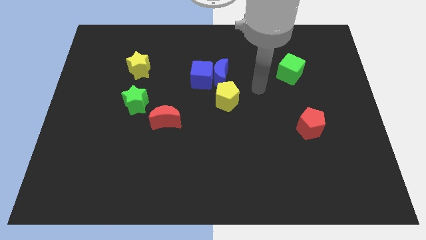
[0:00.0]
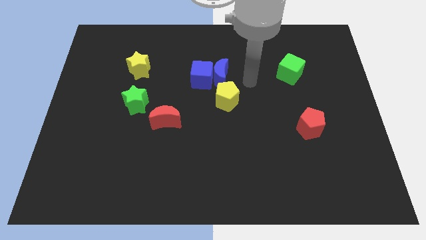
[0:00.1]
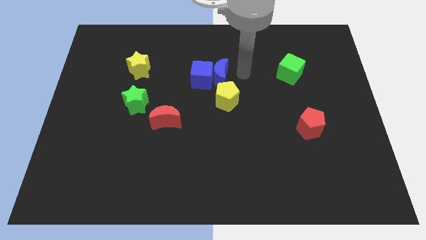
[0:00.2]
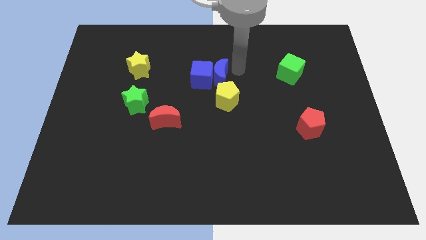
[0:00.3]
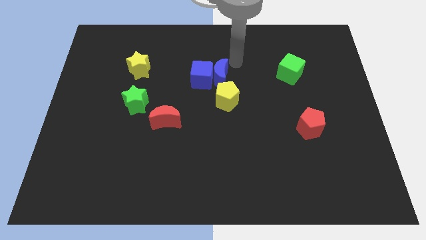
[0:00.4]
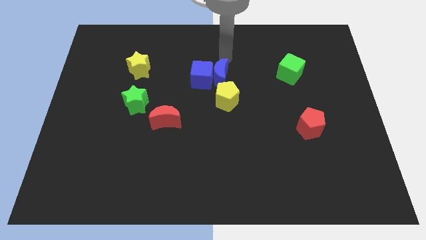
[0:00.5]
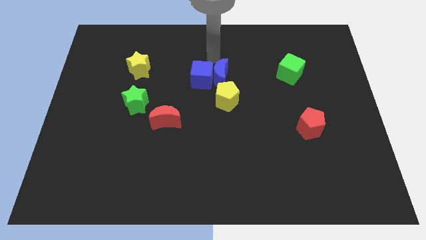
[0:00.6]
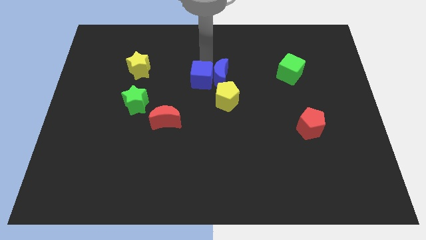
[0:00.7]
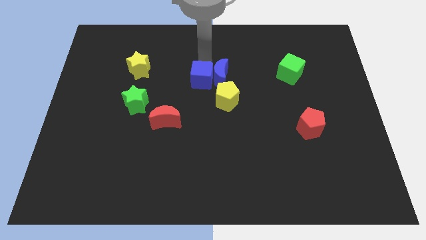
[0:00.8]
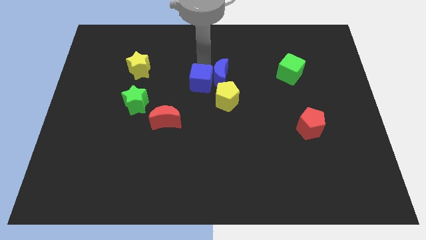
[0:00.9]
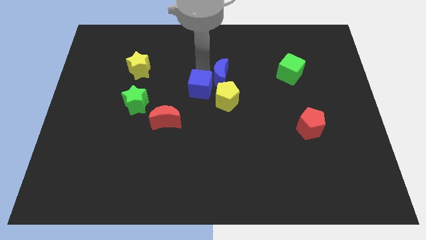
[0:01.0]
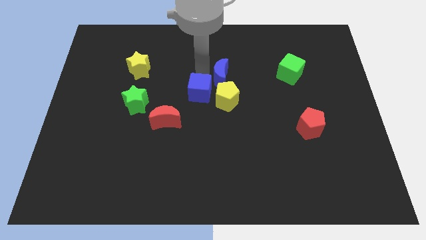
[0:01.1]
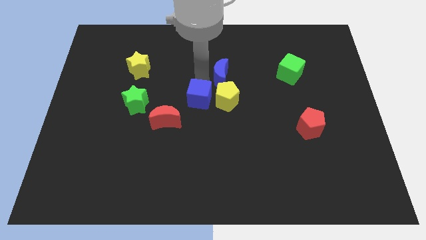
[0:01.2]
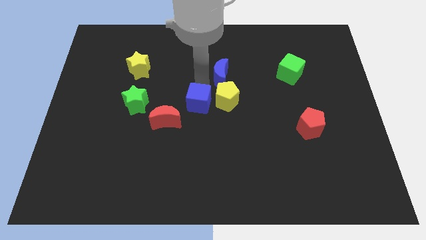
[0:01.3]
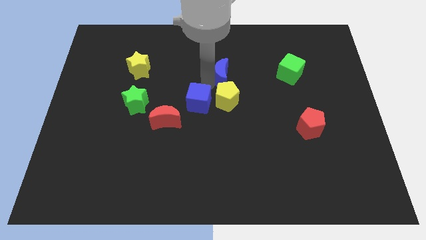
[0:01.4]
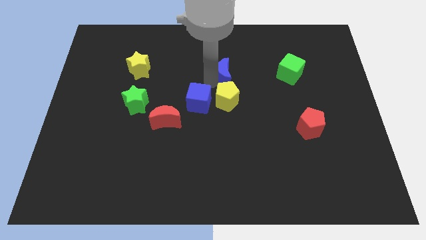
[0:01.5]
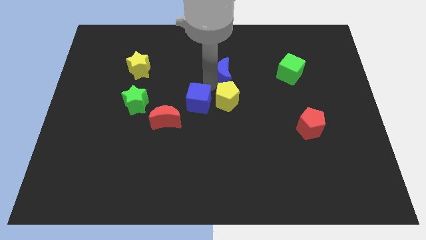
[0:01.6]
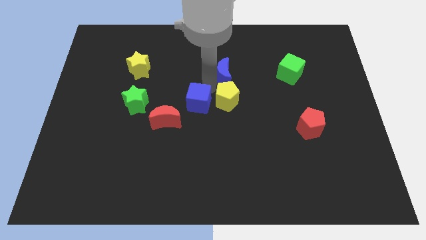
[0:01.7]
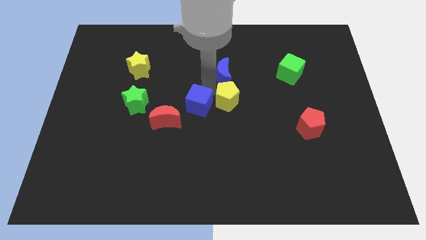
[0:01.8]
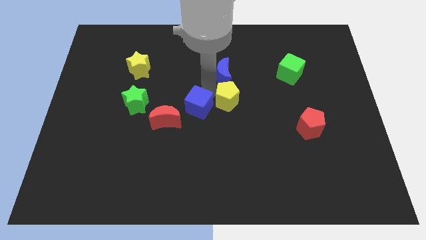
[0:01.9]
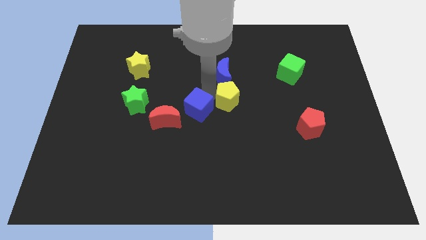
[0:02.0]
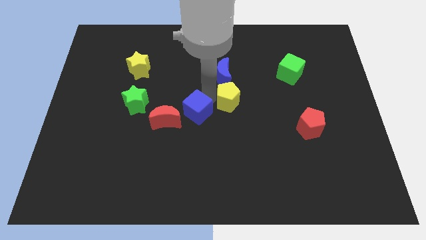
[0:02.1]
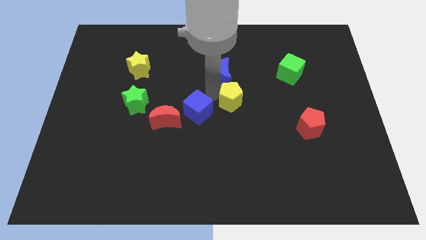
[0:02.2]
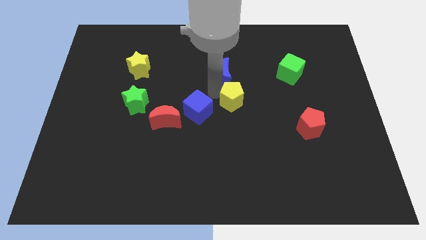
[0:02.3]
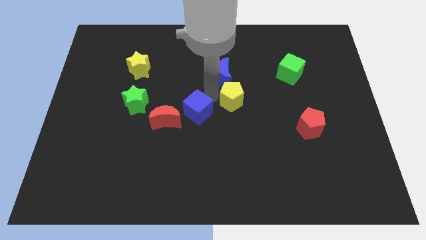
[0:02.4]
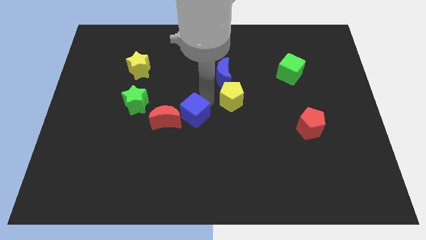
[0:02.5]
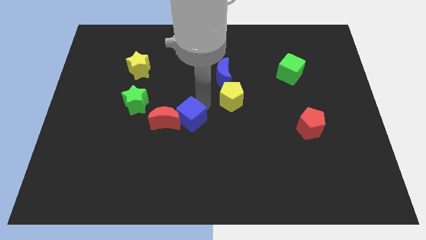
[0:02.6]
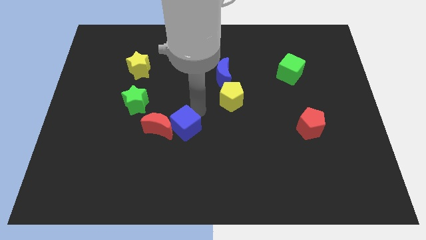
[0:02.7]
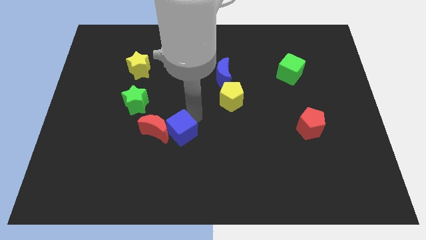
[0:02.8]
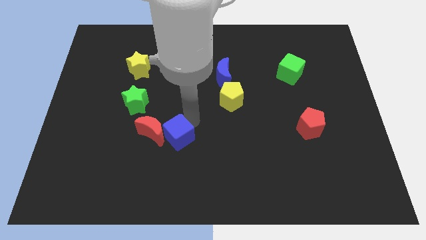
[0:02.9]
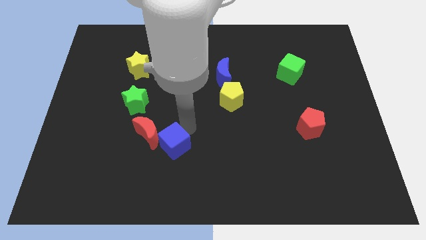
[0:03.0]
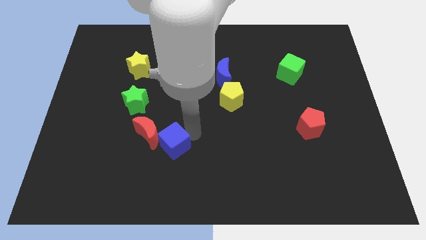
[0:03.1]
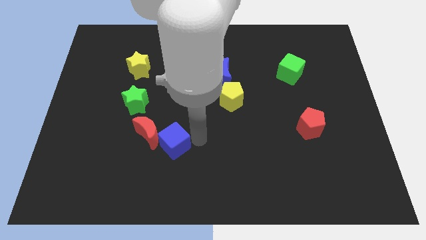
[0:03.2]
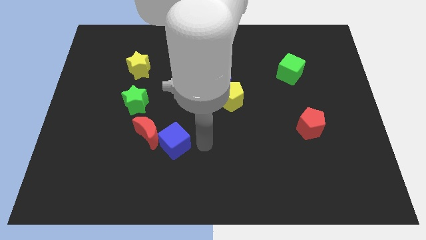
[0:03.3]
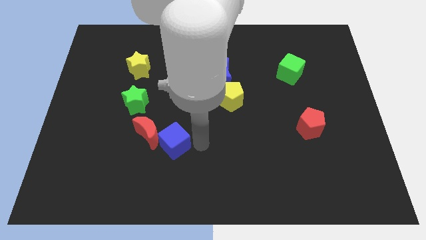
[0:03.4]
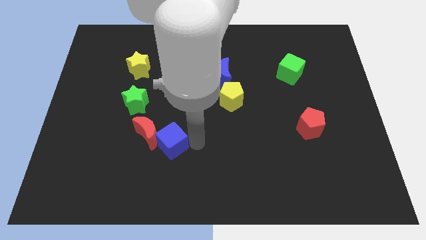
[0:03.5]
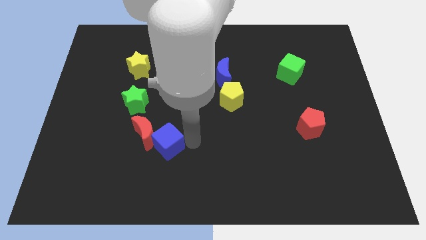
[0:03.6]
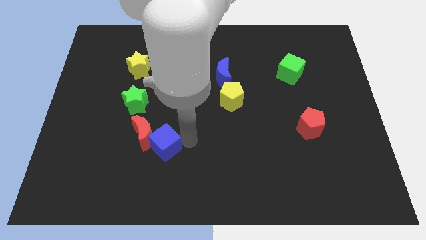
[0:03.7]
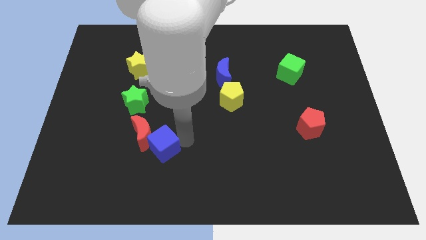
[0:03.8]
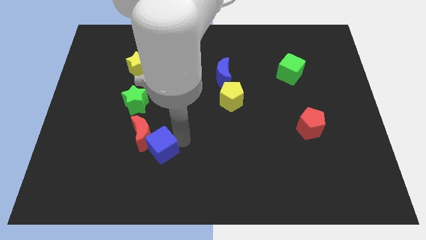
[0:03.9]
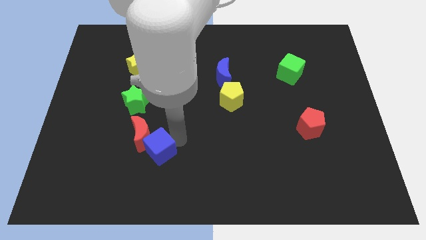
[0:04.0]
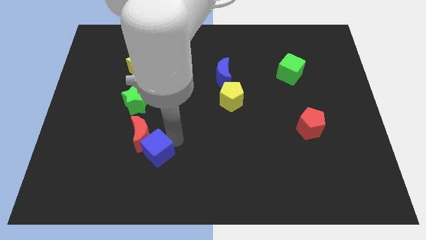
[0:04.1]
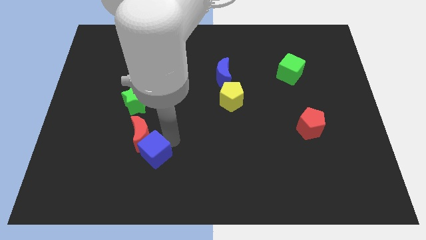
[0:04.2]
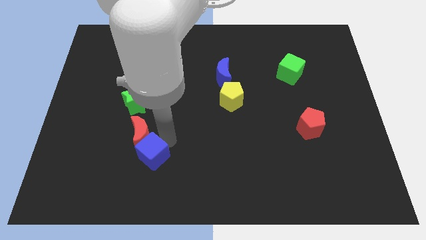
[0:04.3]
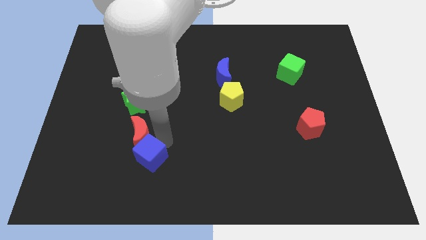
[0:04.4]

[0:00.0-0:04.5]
slide the blue cube down and left diagonally

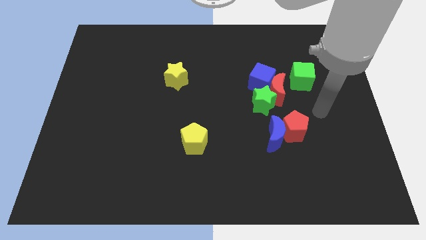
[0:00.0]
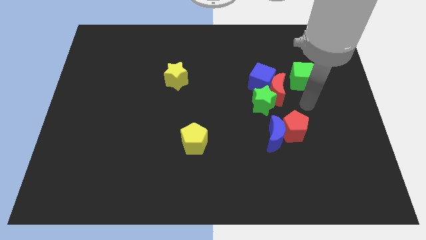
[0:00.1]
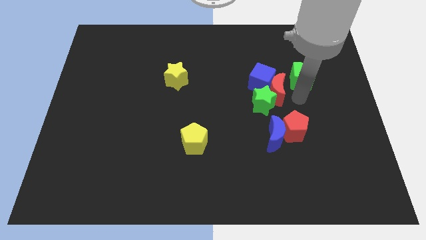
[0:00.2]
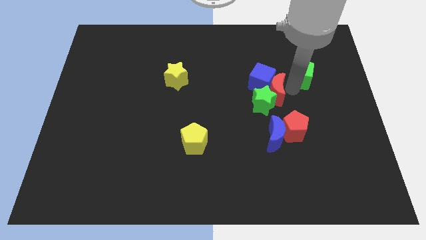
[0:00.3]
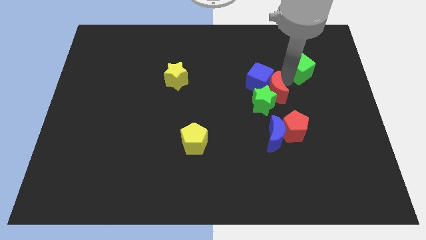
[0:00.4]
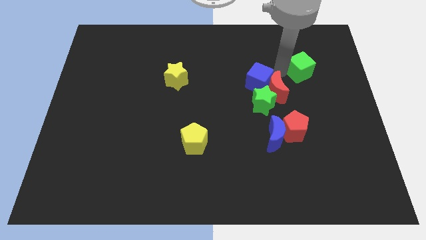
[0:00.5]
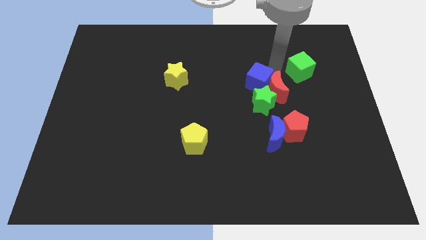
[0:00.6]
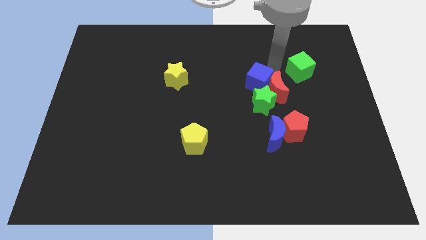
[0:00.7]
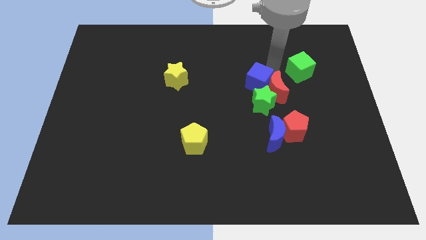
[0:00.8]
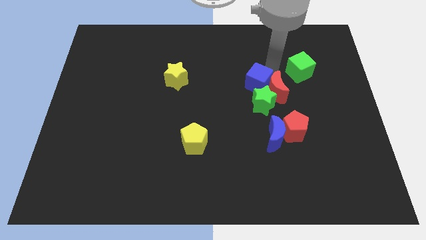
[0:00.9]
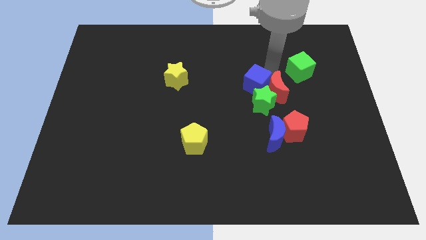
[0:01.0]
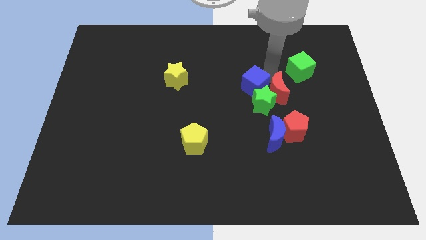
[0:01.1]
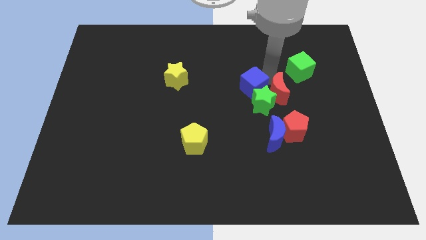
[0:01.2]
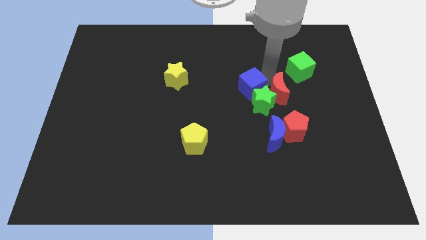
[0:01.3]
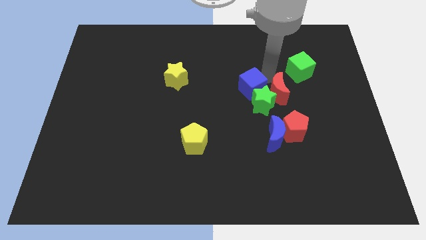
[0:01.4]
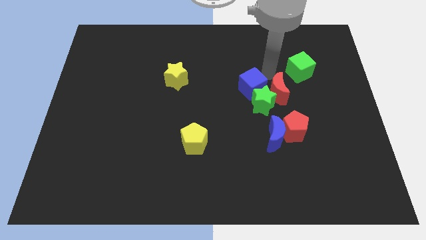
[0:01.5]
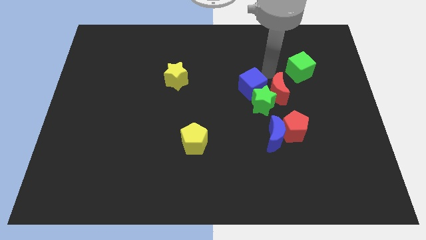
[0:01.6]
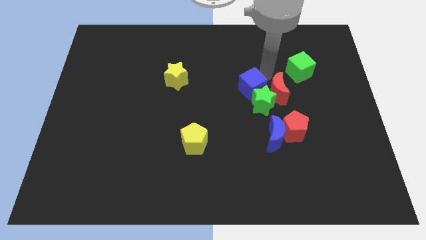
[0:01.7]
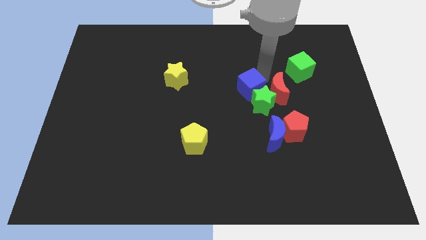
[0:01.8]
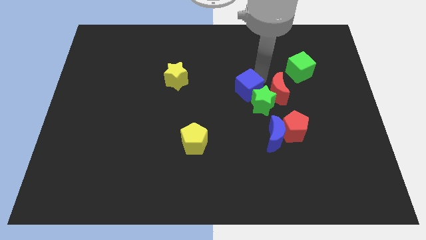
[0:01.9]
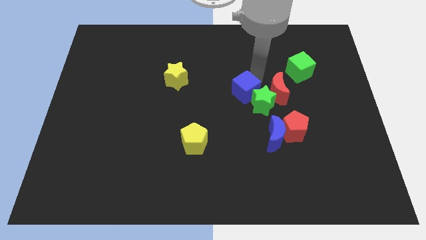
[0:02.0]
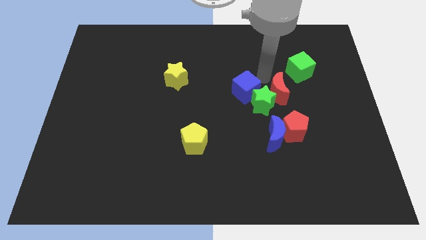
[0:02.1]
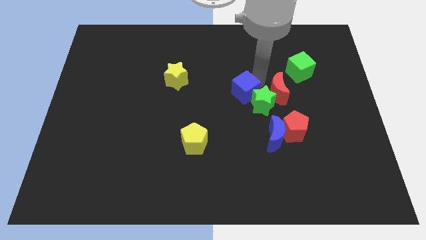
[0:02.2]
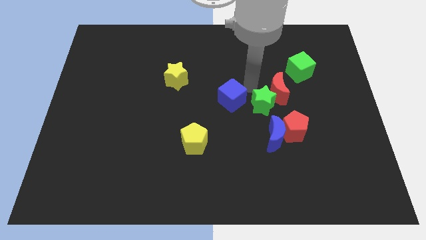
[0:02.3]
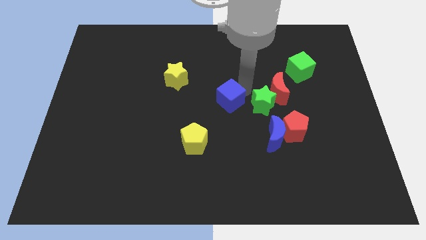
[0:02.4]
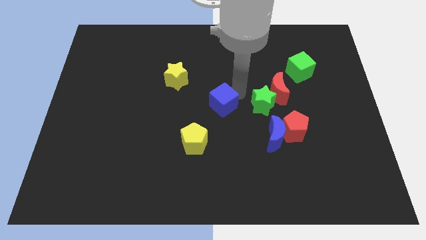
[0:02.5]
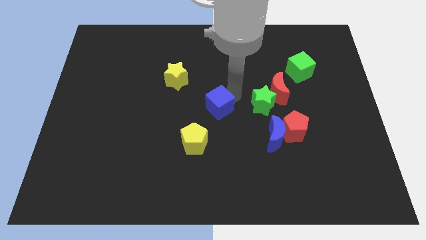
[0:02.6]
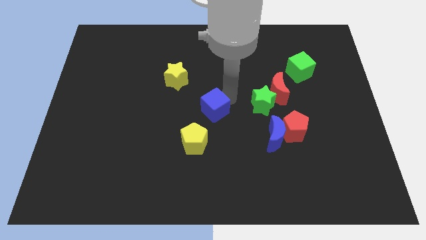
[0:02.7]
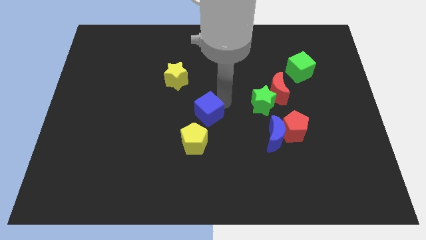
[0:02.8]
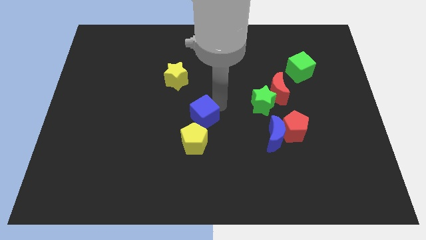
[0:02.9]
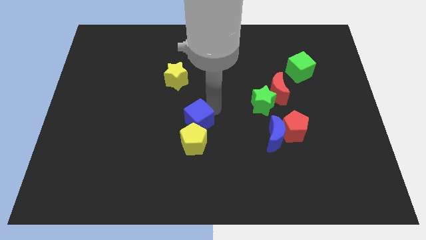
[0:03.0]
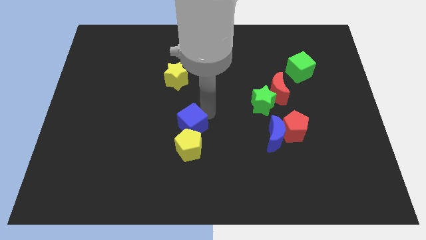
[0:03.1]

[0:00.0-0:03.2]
push the blue cube down and to the left

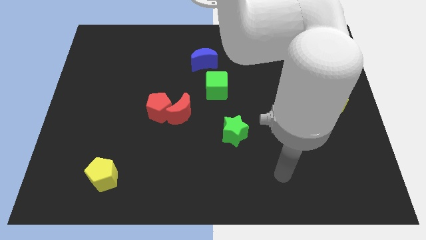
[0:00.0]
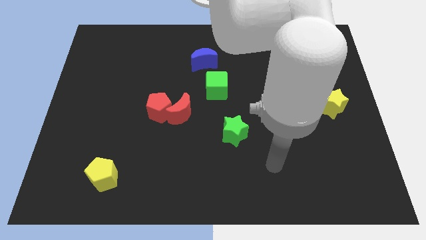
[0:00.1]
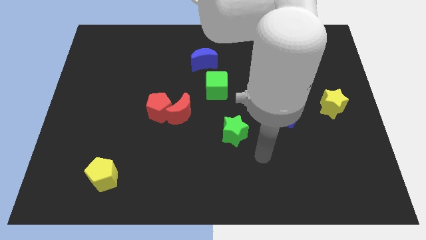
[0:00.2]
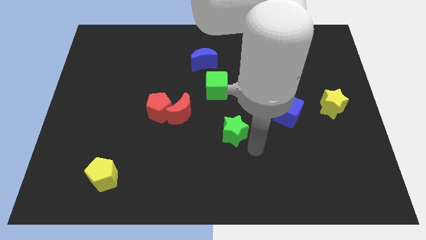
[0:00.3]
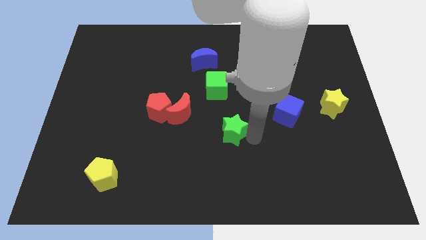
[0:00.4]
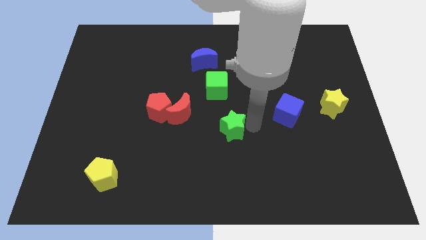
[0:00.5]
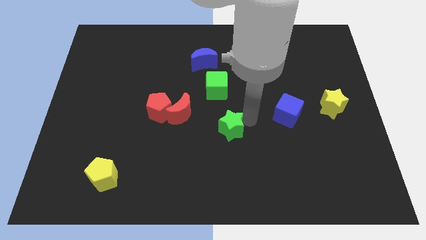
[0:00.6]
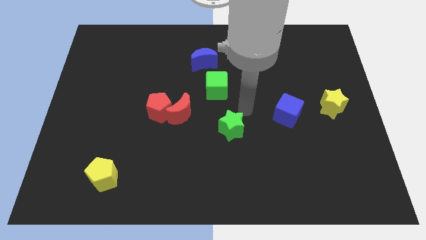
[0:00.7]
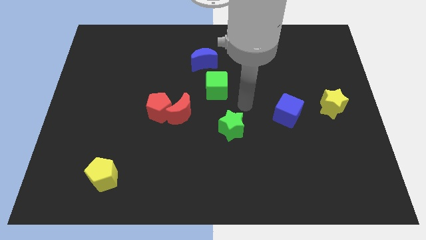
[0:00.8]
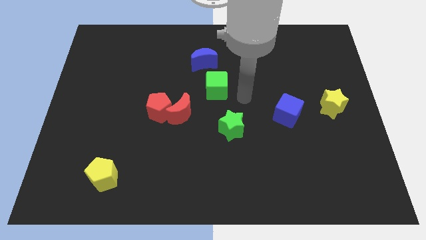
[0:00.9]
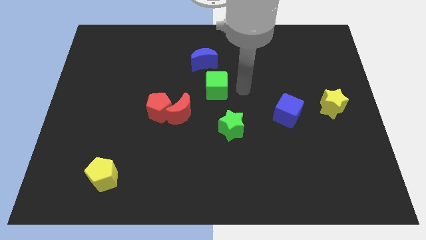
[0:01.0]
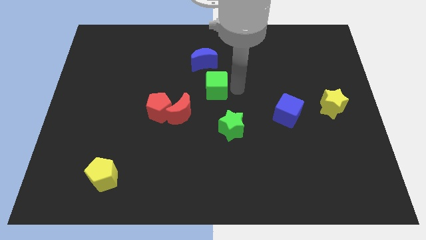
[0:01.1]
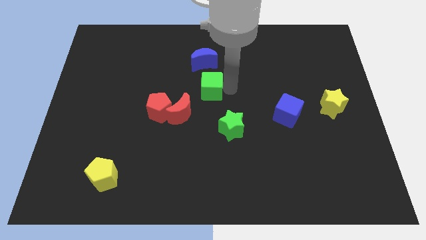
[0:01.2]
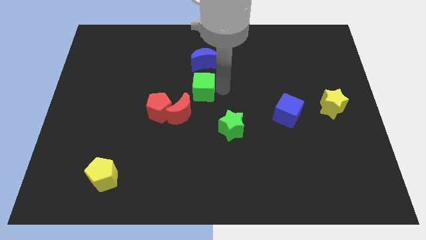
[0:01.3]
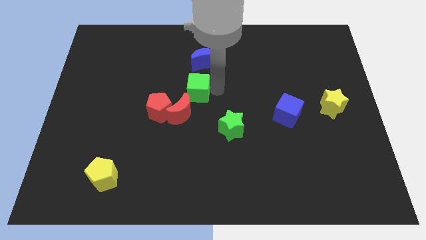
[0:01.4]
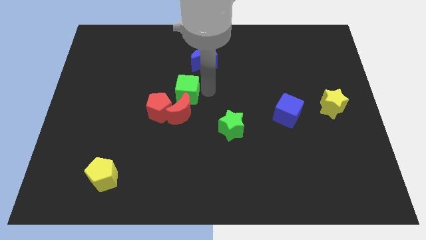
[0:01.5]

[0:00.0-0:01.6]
slide the green cube left a bit
